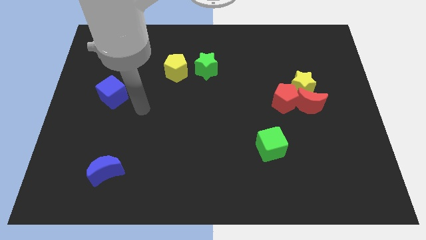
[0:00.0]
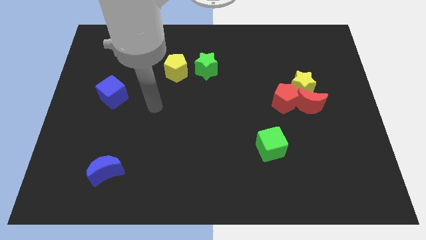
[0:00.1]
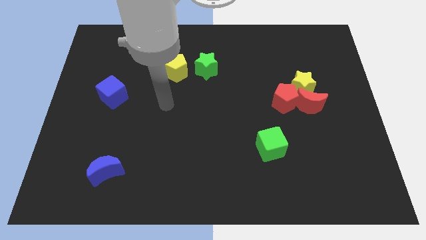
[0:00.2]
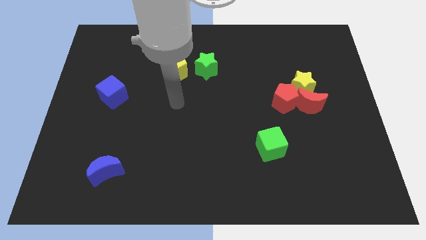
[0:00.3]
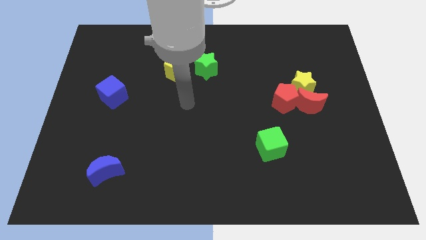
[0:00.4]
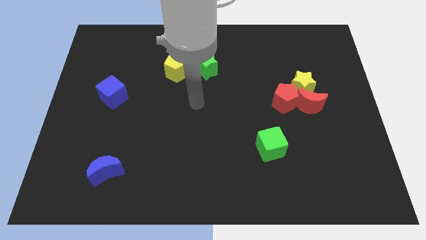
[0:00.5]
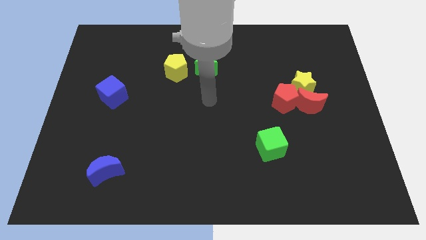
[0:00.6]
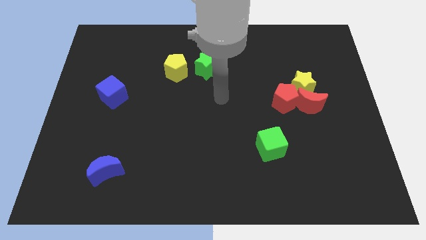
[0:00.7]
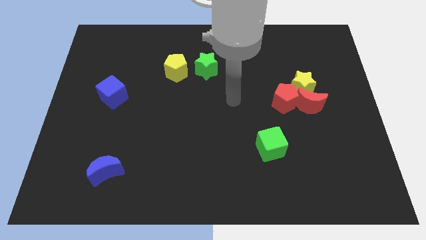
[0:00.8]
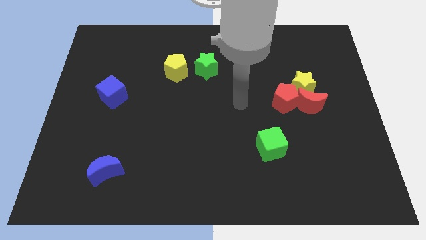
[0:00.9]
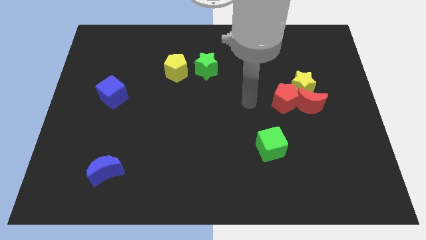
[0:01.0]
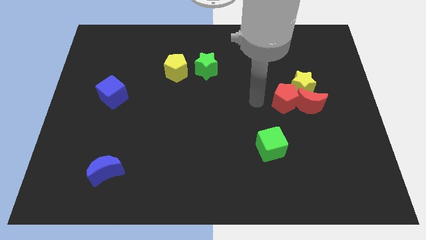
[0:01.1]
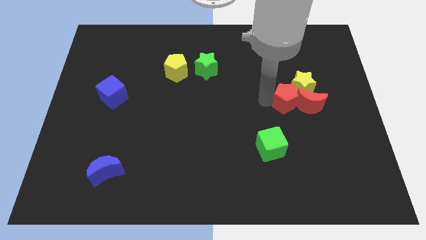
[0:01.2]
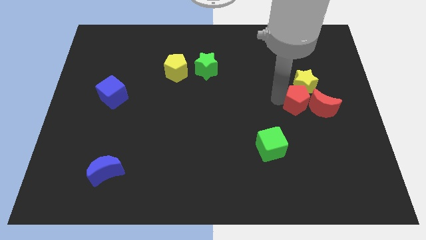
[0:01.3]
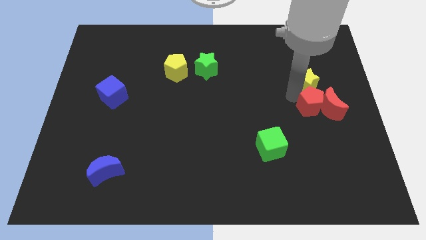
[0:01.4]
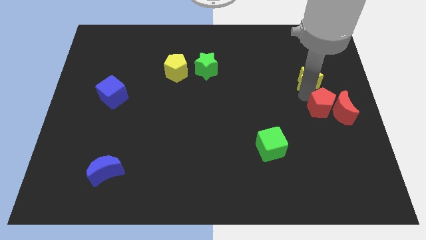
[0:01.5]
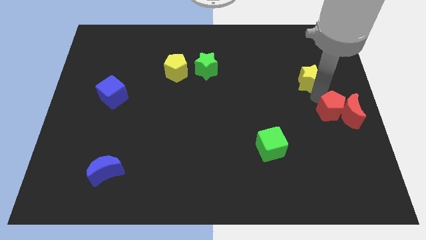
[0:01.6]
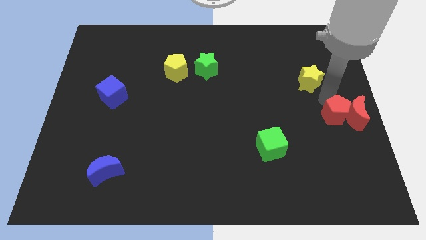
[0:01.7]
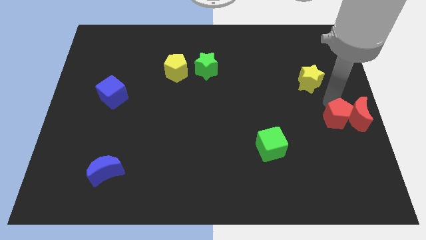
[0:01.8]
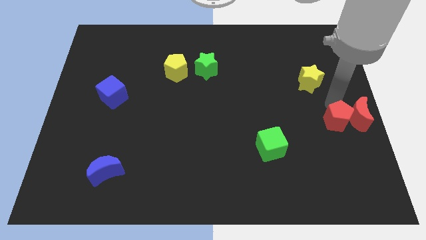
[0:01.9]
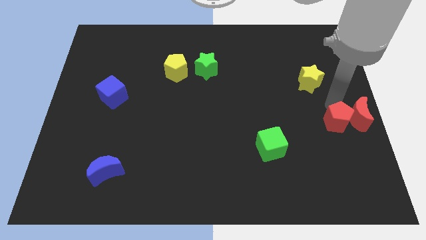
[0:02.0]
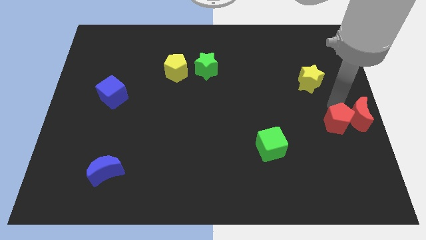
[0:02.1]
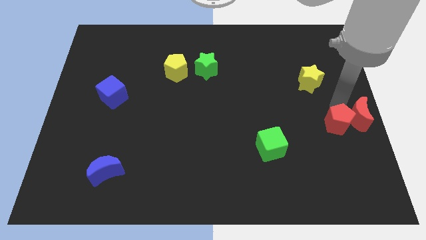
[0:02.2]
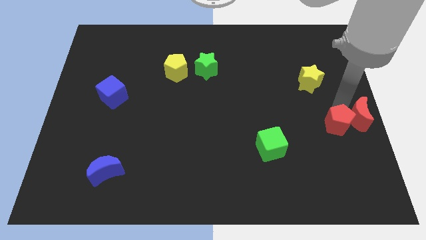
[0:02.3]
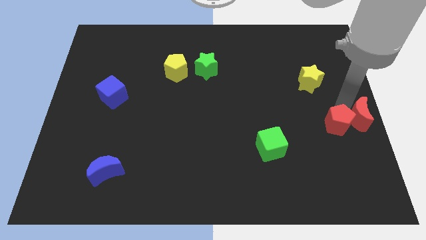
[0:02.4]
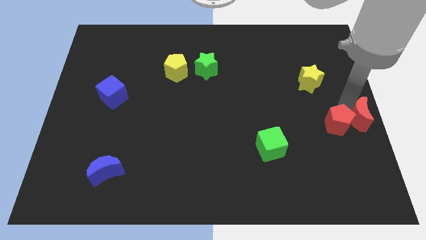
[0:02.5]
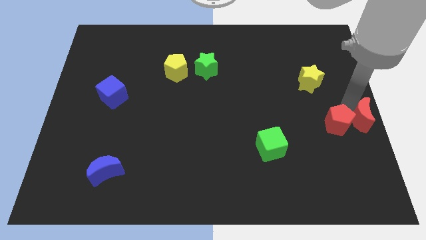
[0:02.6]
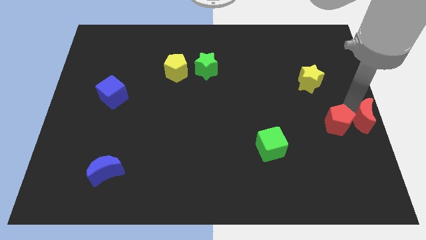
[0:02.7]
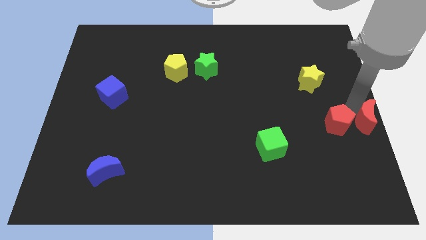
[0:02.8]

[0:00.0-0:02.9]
move the red moon away from the yellow star and red pentagon

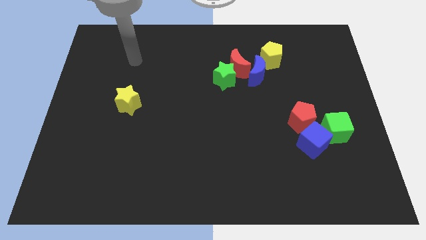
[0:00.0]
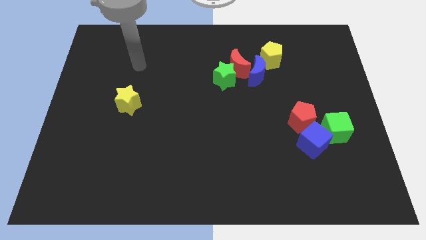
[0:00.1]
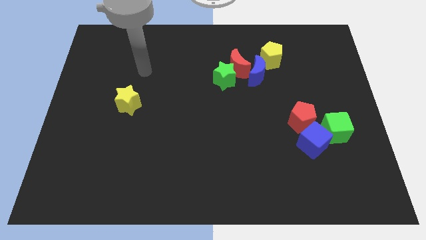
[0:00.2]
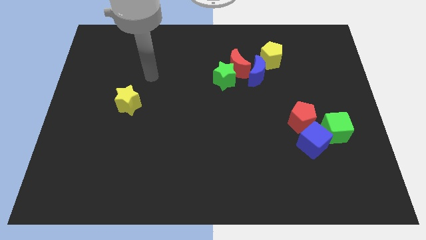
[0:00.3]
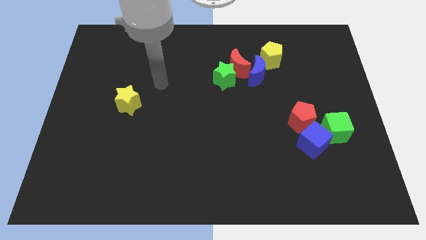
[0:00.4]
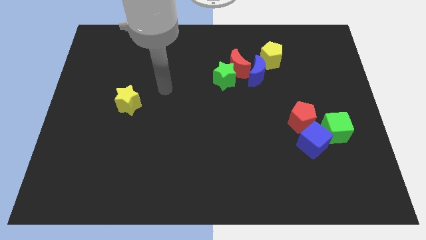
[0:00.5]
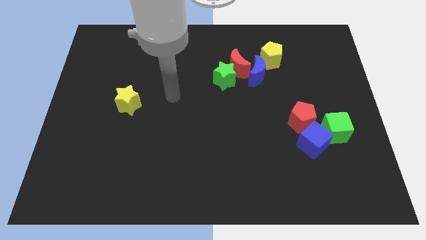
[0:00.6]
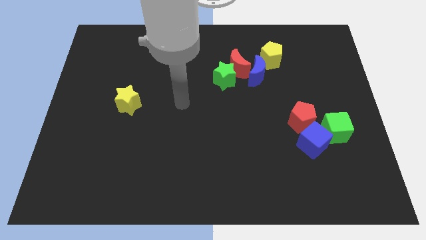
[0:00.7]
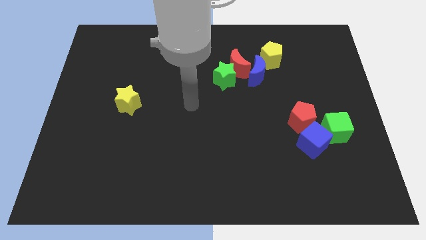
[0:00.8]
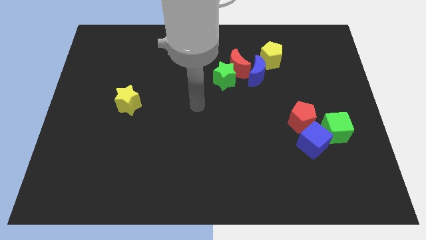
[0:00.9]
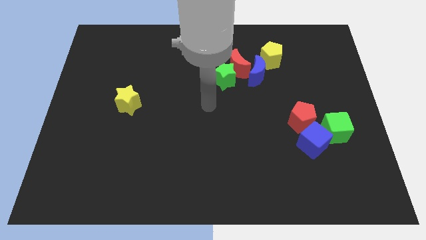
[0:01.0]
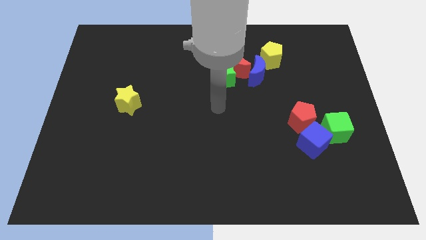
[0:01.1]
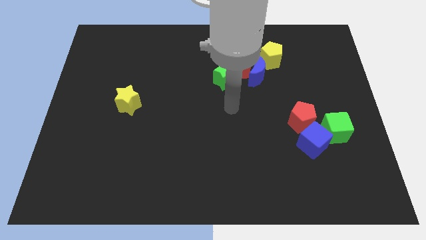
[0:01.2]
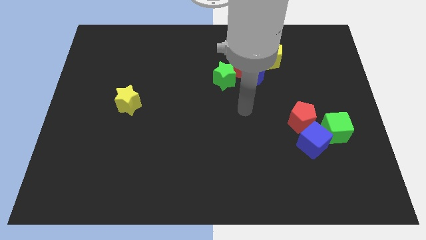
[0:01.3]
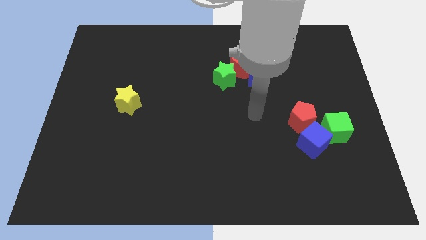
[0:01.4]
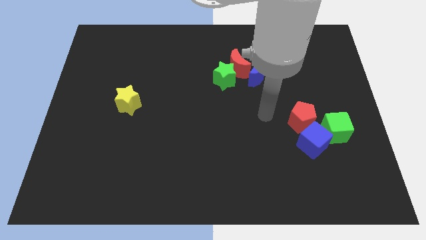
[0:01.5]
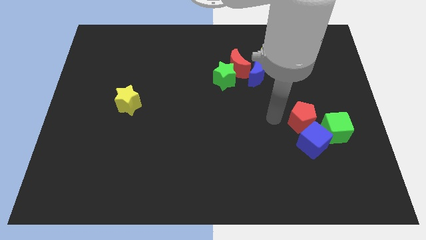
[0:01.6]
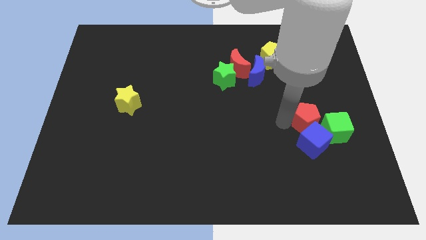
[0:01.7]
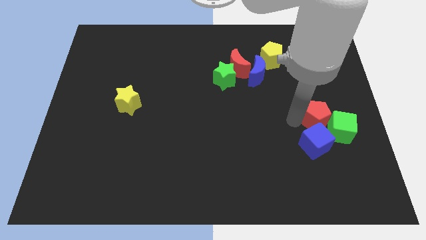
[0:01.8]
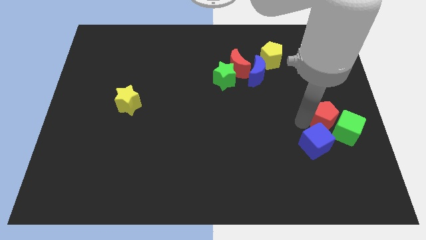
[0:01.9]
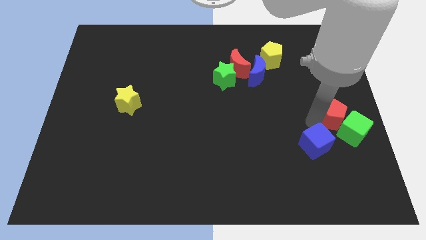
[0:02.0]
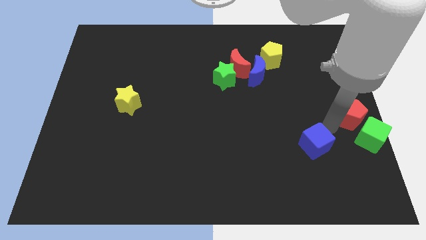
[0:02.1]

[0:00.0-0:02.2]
move the blue cube away from the red pentagon and green cube

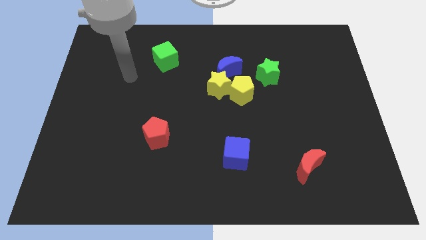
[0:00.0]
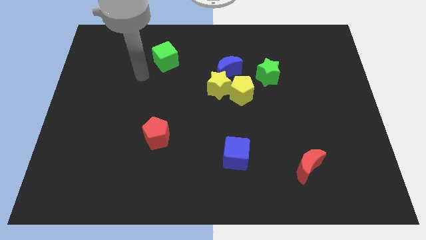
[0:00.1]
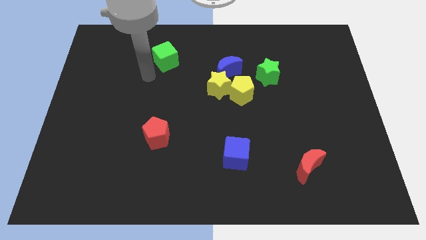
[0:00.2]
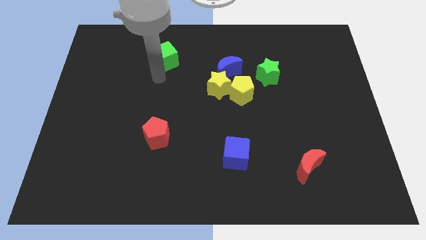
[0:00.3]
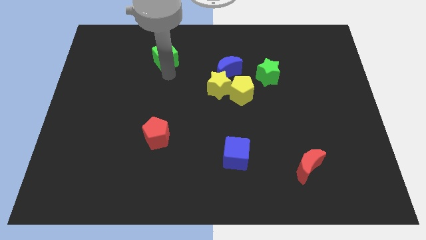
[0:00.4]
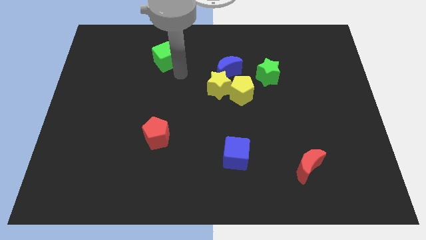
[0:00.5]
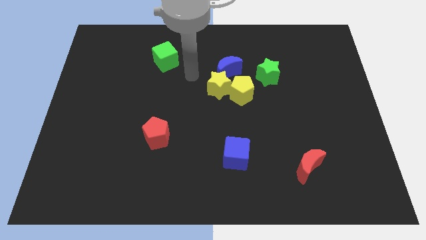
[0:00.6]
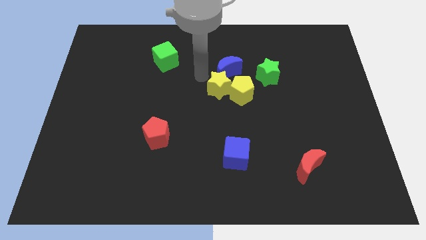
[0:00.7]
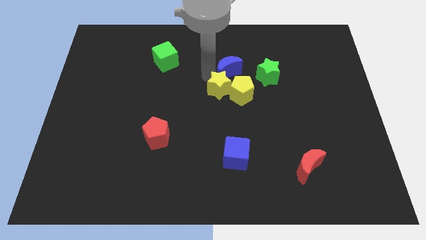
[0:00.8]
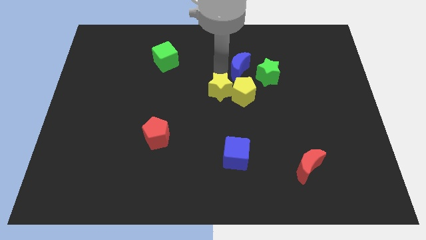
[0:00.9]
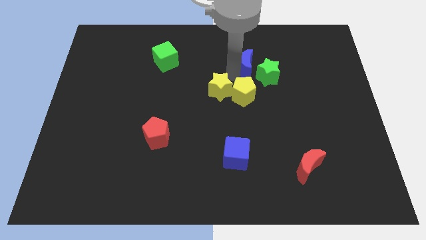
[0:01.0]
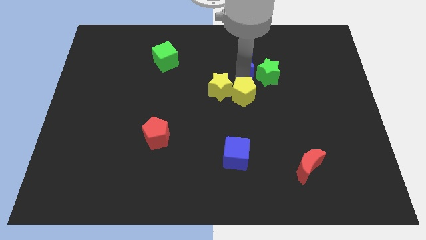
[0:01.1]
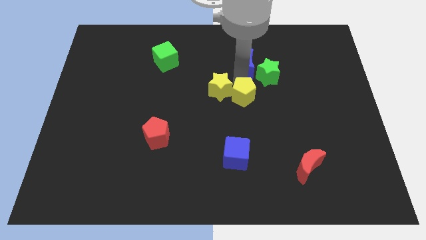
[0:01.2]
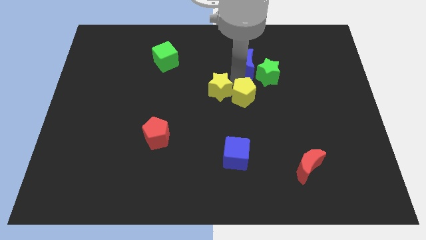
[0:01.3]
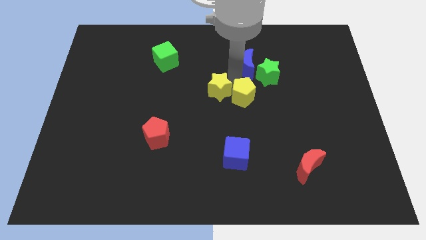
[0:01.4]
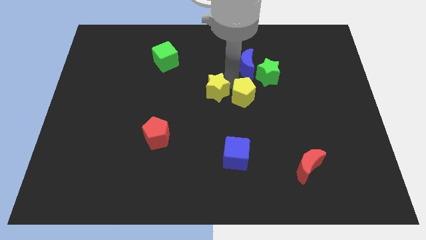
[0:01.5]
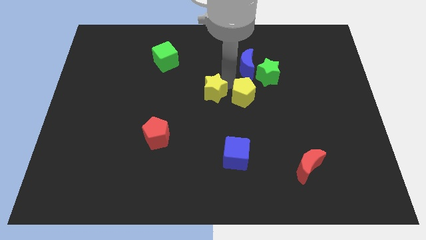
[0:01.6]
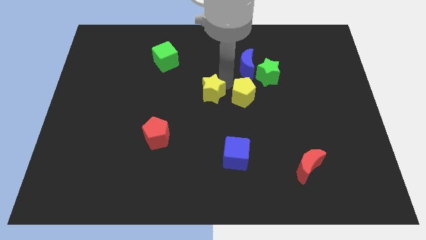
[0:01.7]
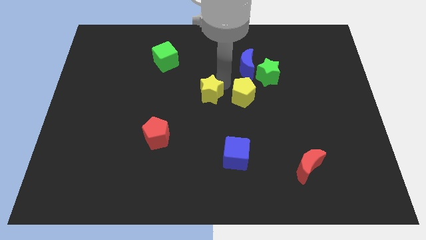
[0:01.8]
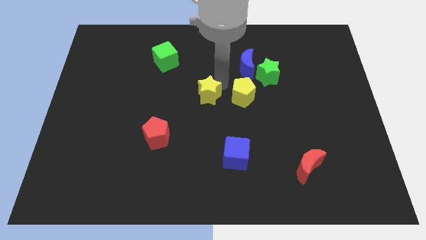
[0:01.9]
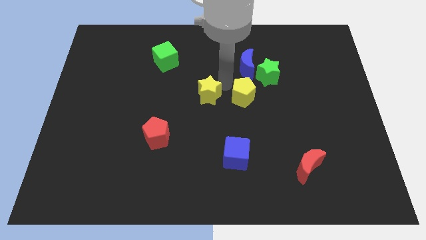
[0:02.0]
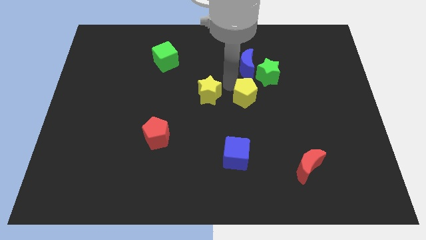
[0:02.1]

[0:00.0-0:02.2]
move the yellow star away from the yellow pentagon and blue moon

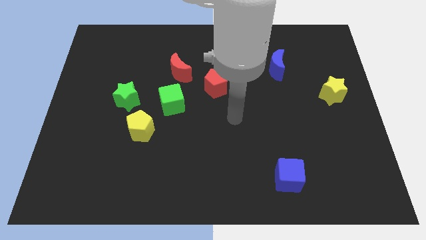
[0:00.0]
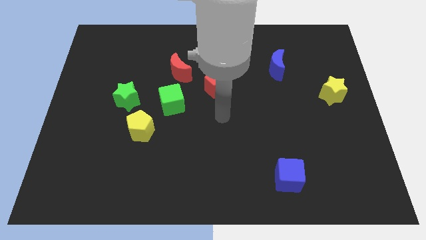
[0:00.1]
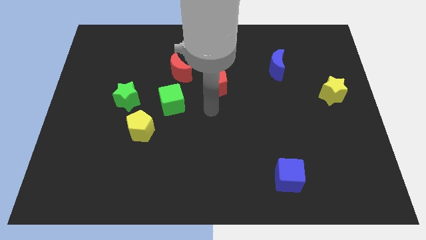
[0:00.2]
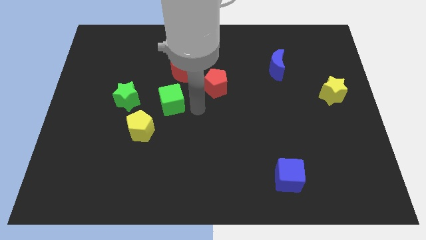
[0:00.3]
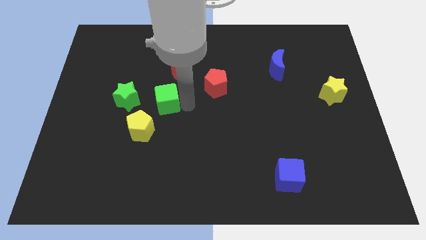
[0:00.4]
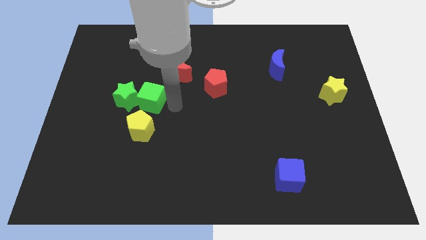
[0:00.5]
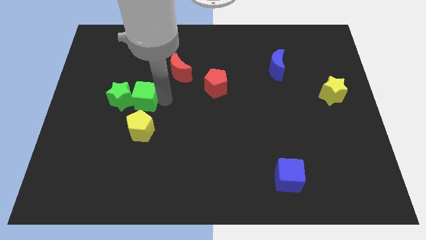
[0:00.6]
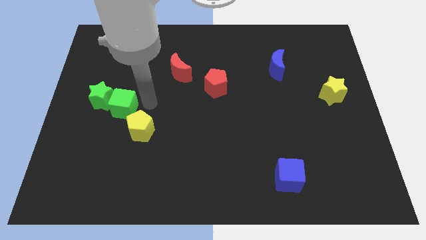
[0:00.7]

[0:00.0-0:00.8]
move the yellow pentagon away from the green cube and green star

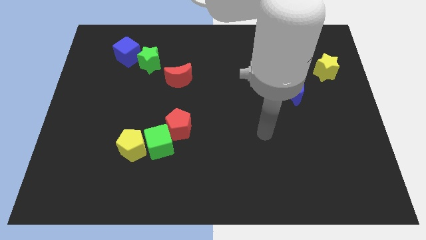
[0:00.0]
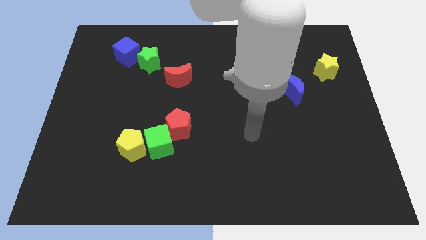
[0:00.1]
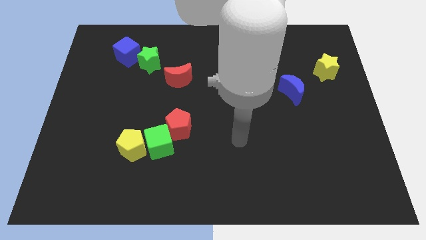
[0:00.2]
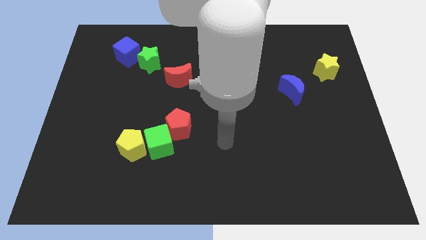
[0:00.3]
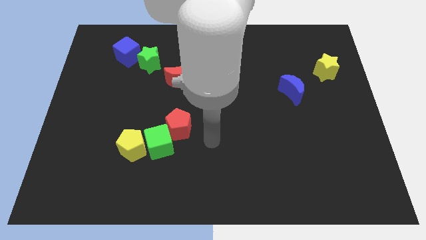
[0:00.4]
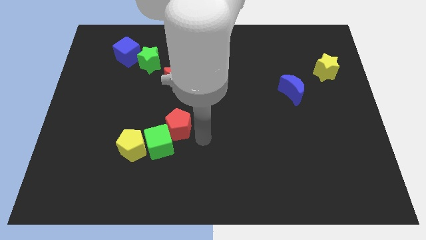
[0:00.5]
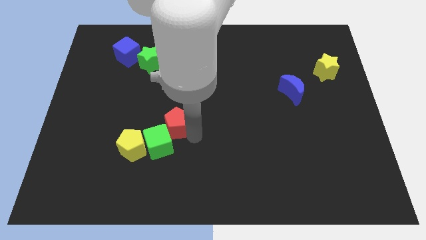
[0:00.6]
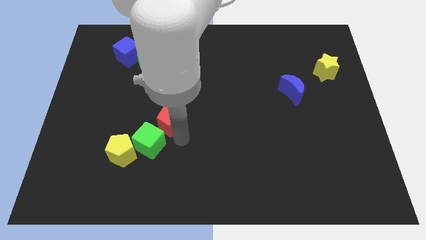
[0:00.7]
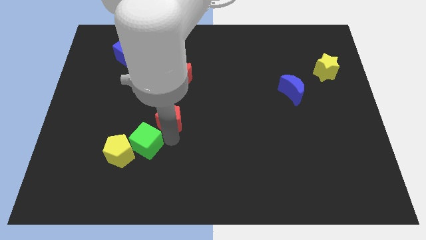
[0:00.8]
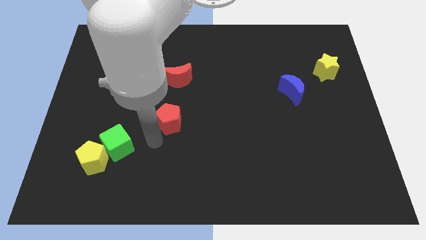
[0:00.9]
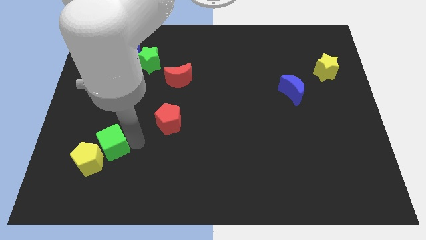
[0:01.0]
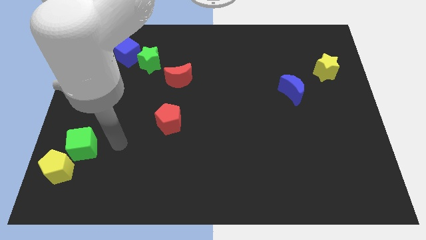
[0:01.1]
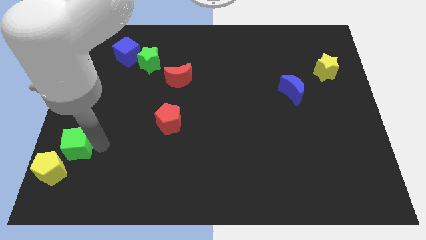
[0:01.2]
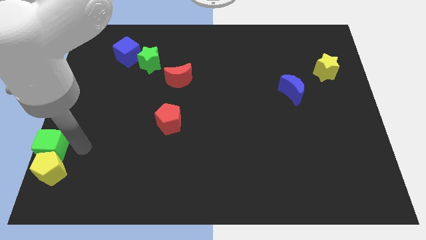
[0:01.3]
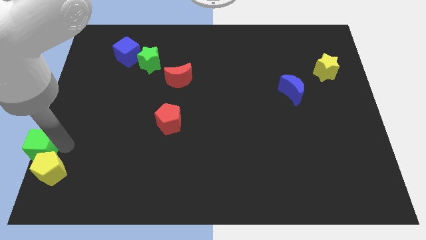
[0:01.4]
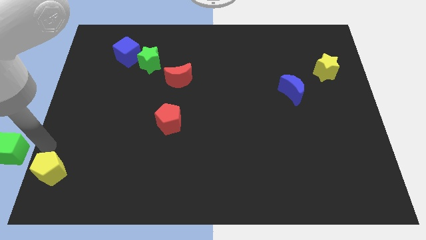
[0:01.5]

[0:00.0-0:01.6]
separate the yellow pentagon from the green cube
